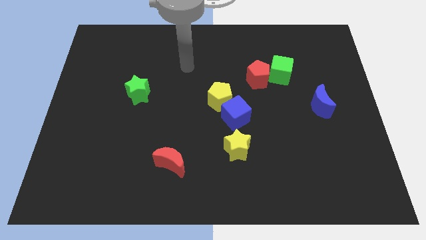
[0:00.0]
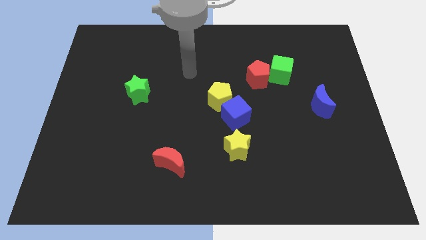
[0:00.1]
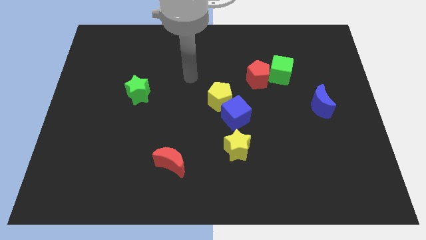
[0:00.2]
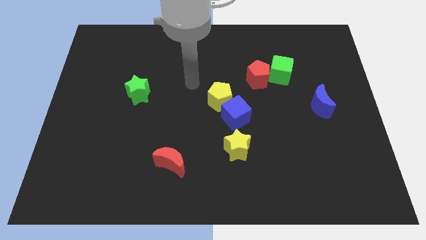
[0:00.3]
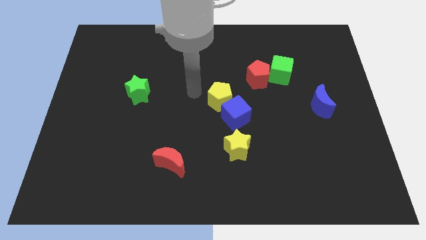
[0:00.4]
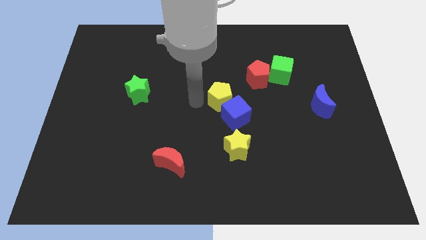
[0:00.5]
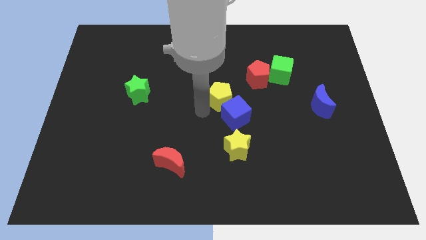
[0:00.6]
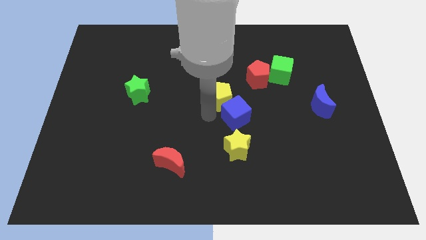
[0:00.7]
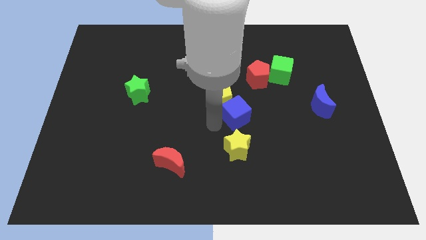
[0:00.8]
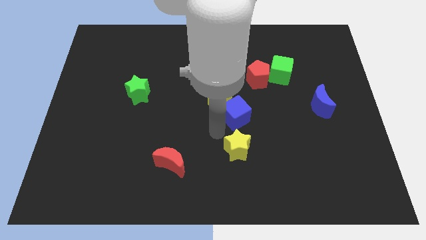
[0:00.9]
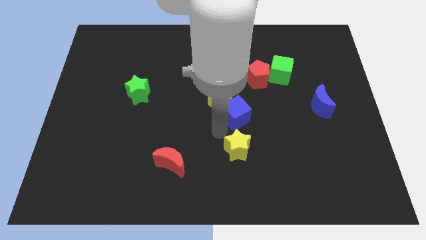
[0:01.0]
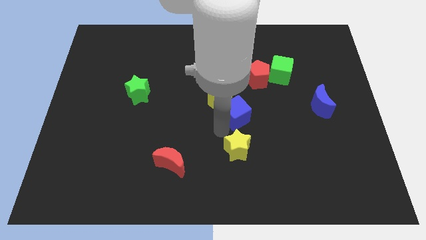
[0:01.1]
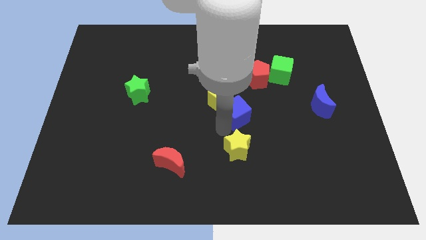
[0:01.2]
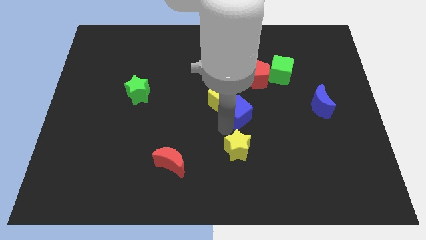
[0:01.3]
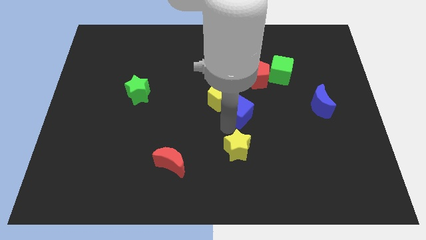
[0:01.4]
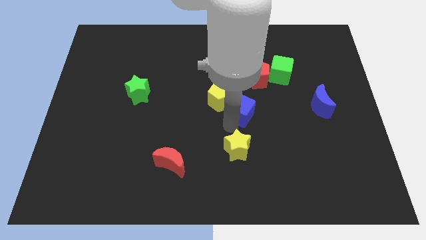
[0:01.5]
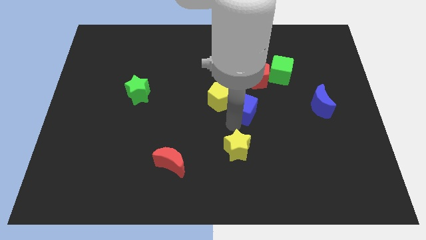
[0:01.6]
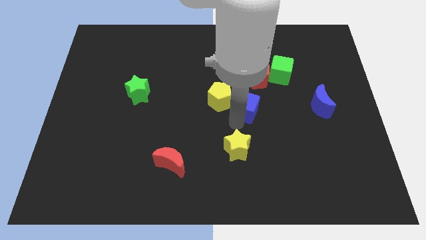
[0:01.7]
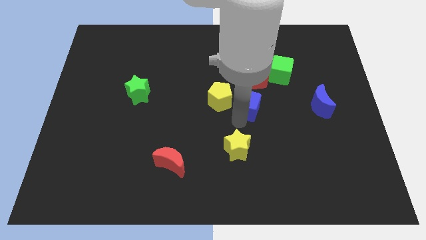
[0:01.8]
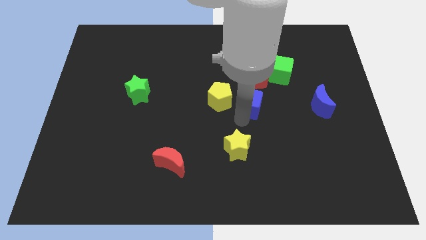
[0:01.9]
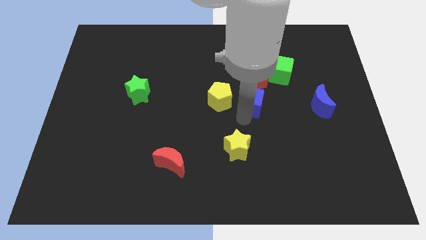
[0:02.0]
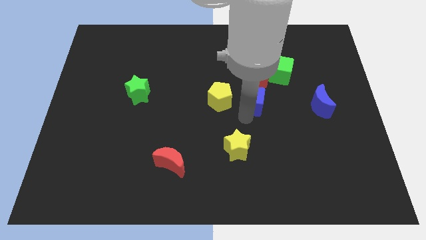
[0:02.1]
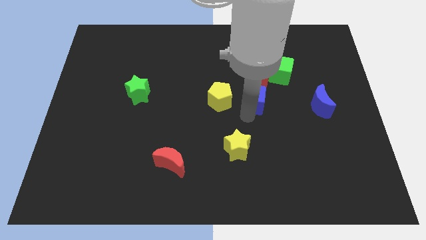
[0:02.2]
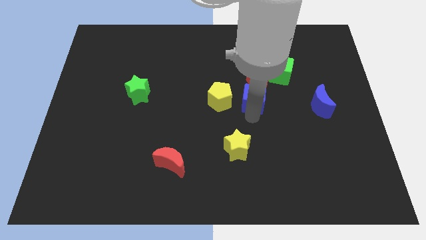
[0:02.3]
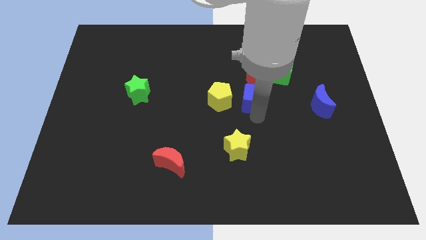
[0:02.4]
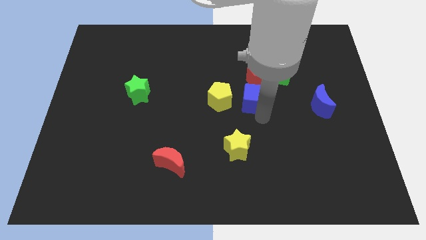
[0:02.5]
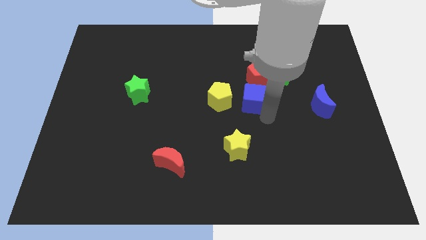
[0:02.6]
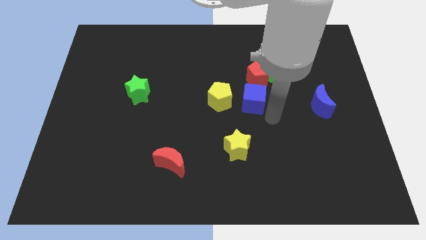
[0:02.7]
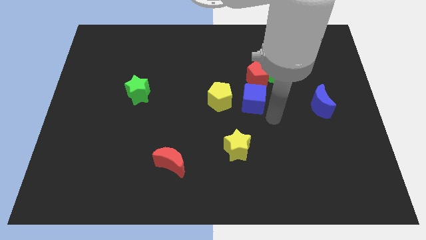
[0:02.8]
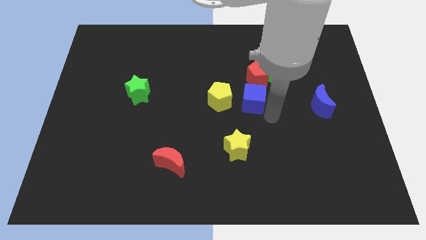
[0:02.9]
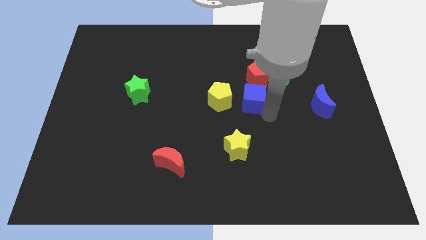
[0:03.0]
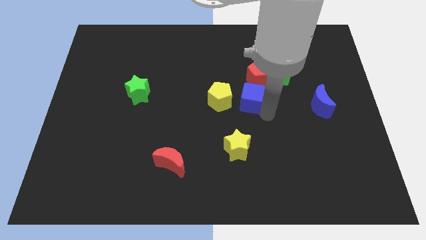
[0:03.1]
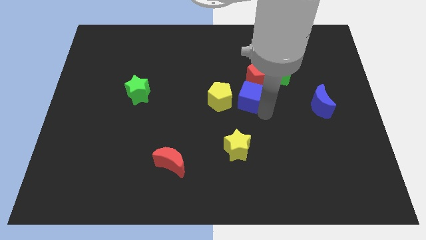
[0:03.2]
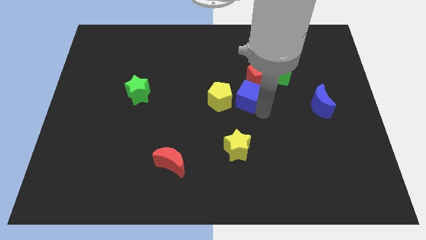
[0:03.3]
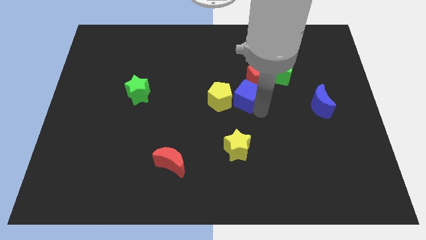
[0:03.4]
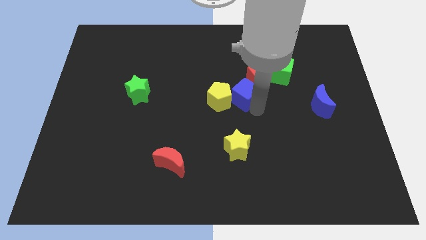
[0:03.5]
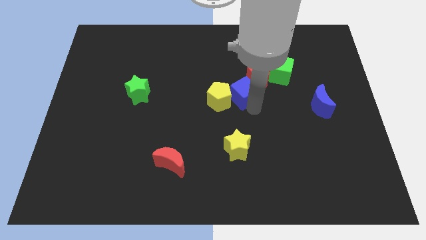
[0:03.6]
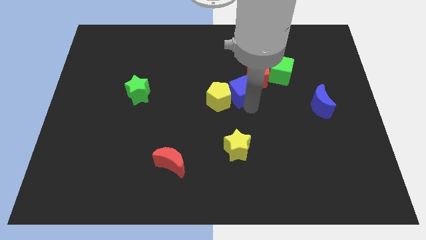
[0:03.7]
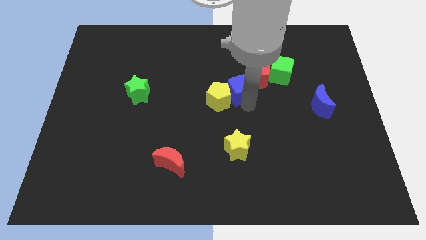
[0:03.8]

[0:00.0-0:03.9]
slide the blue cube a little bit upwards

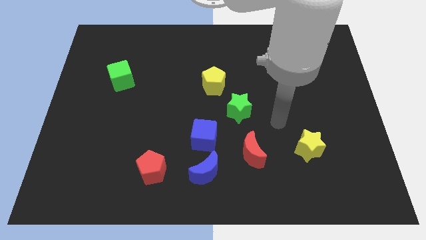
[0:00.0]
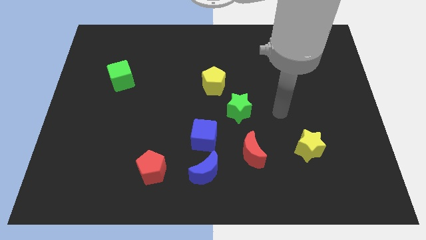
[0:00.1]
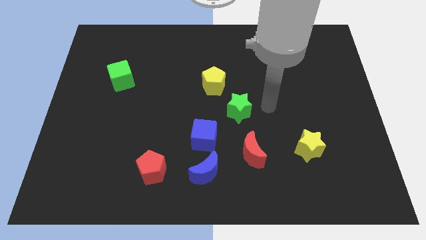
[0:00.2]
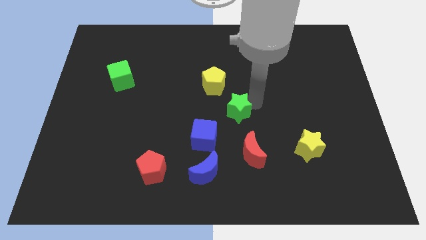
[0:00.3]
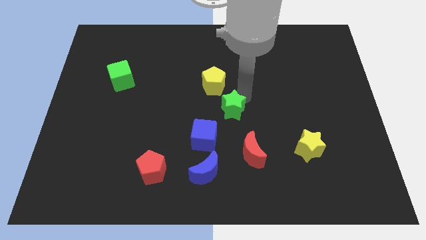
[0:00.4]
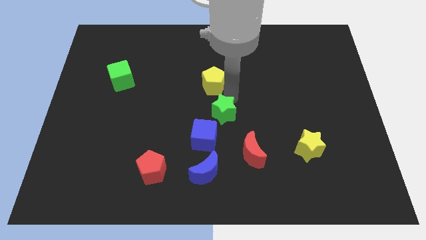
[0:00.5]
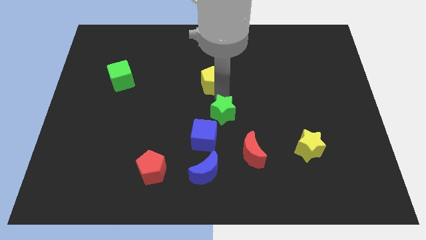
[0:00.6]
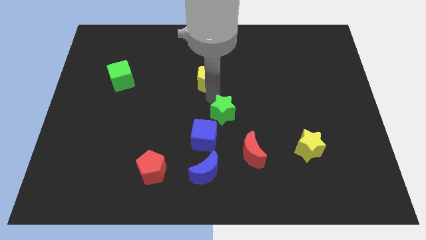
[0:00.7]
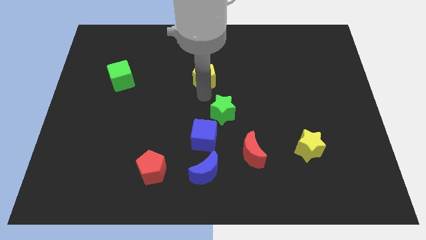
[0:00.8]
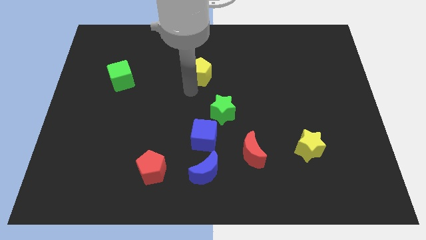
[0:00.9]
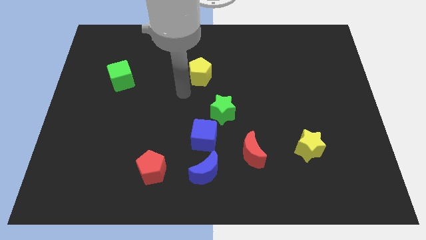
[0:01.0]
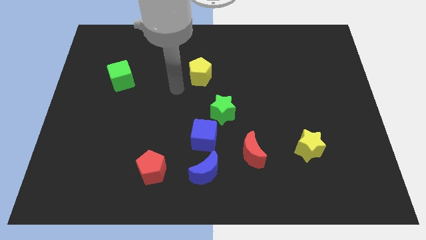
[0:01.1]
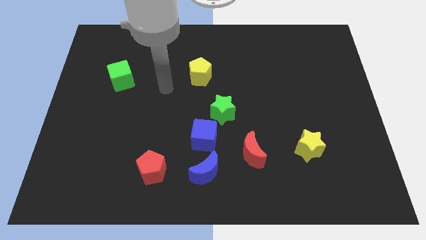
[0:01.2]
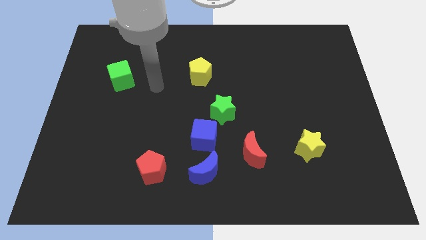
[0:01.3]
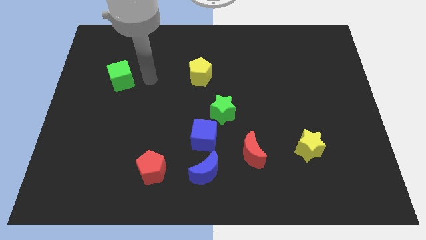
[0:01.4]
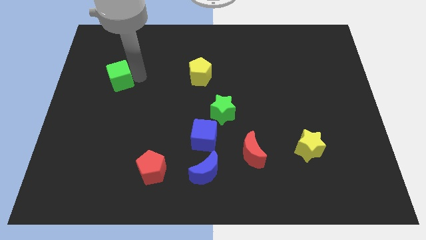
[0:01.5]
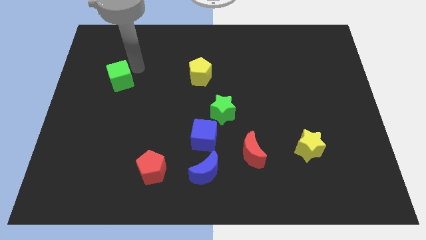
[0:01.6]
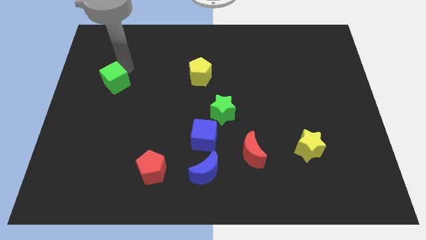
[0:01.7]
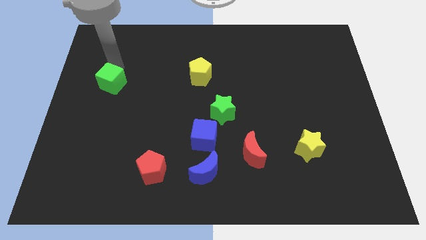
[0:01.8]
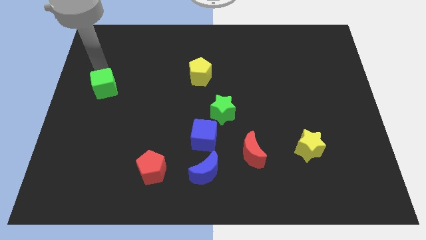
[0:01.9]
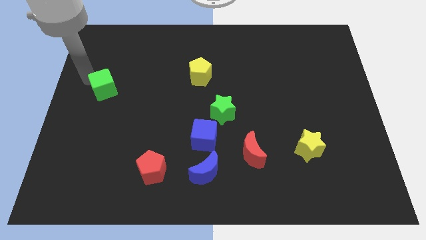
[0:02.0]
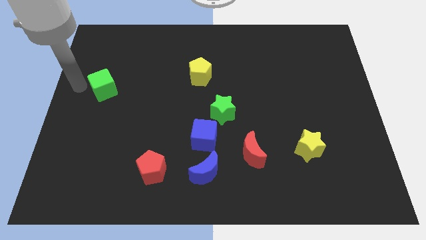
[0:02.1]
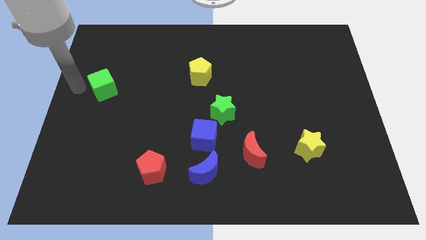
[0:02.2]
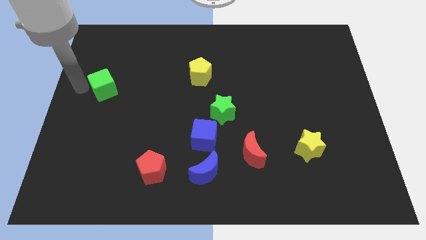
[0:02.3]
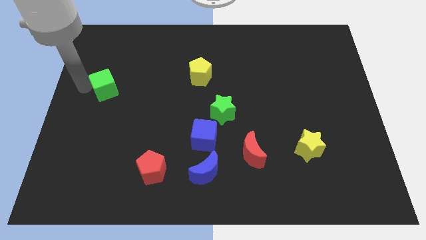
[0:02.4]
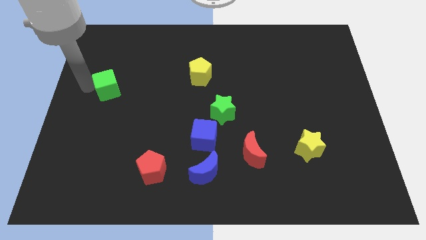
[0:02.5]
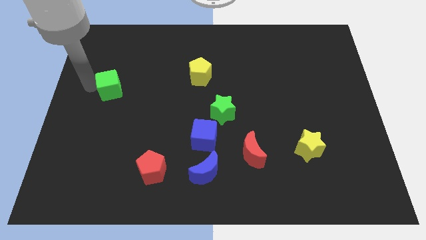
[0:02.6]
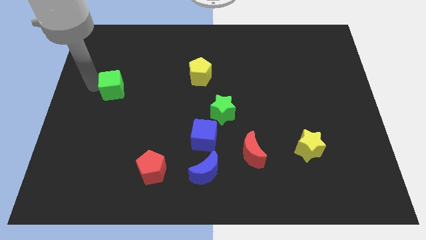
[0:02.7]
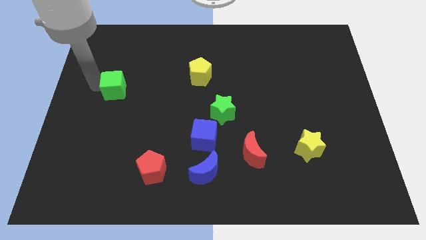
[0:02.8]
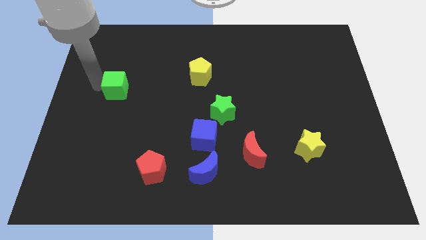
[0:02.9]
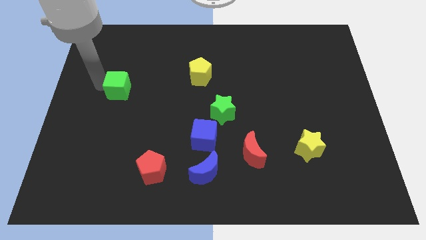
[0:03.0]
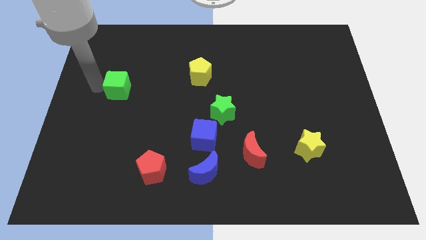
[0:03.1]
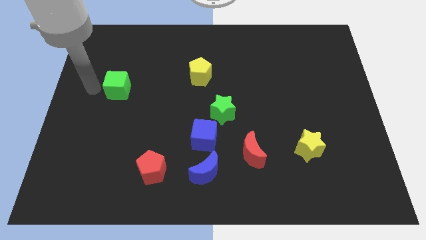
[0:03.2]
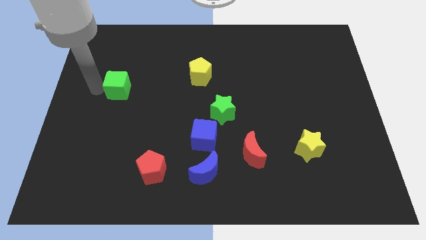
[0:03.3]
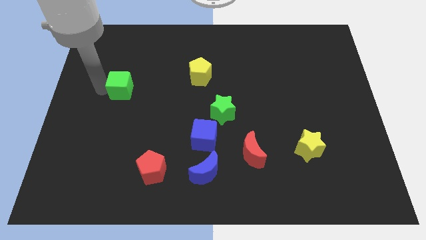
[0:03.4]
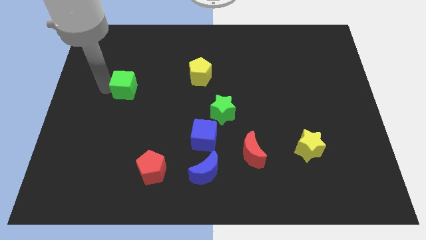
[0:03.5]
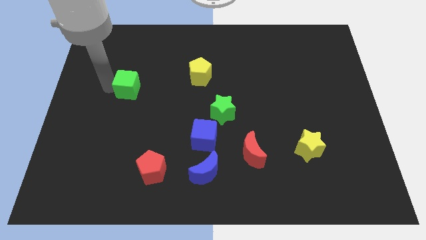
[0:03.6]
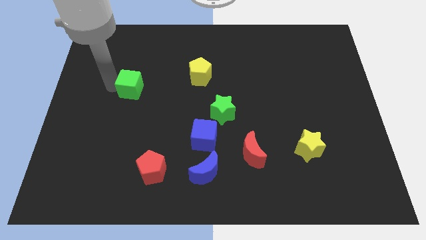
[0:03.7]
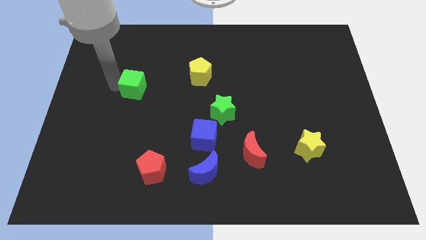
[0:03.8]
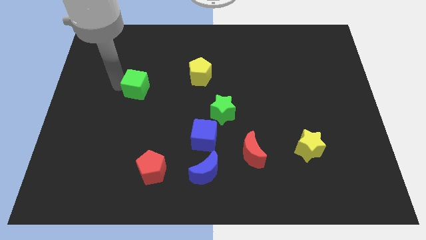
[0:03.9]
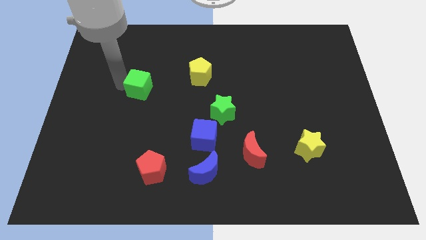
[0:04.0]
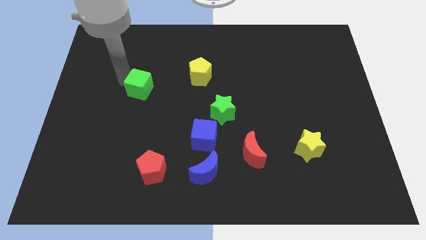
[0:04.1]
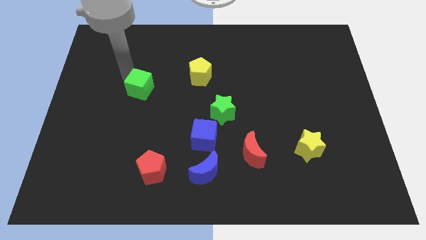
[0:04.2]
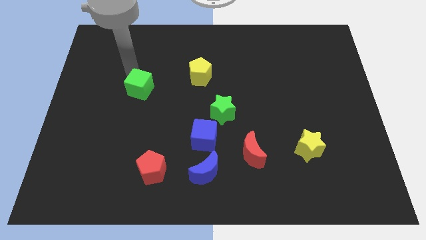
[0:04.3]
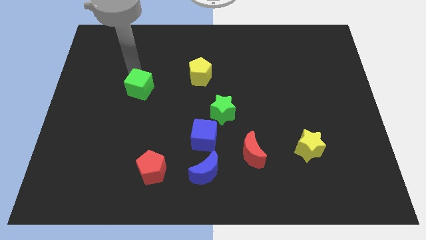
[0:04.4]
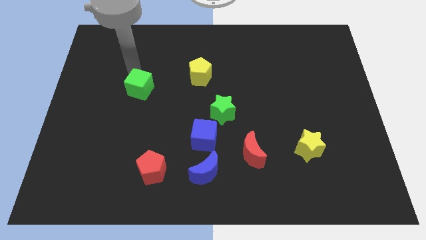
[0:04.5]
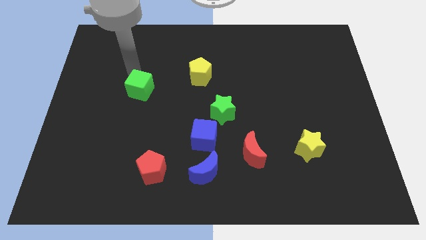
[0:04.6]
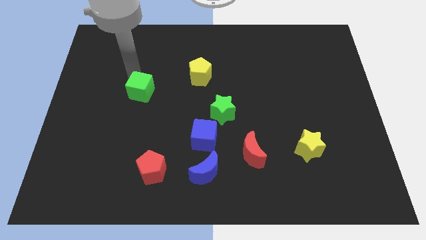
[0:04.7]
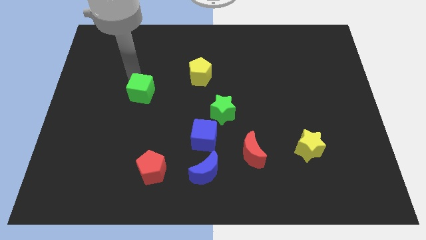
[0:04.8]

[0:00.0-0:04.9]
move the green cube a little down and to the right diagonally
